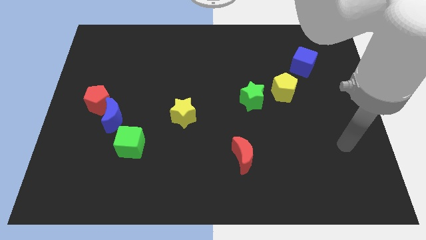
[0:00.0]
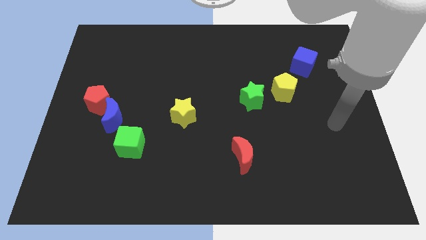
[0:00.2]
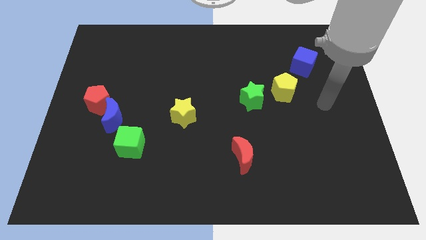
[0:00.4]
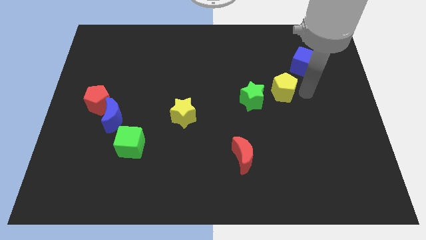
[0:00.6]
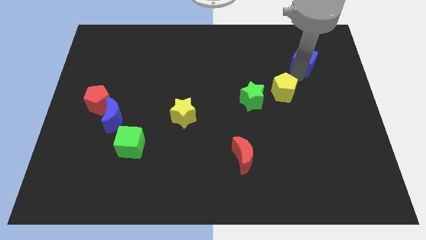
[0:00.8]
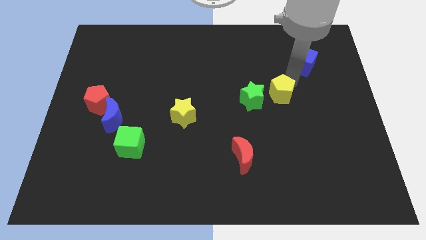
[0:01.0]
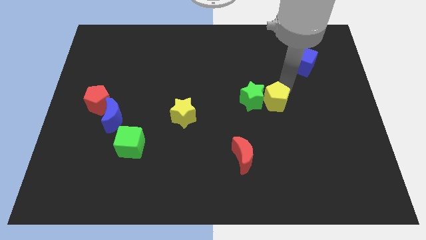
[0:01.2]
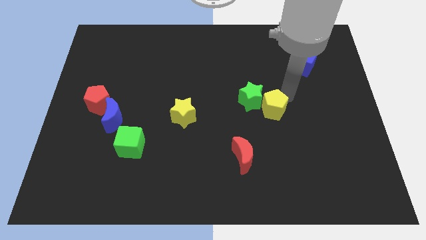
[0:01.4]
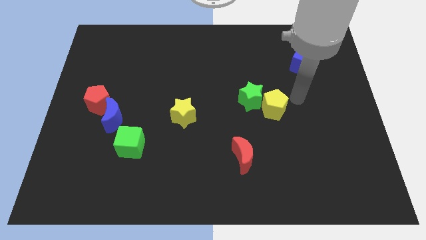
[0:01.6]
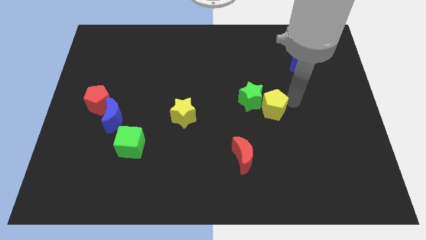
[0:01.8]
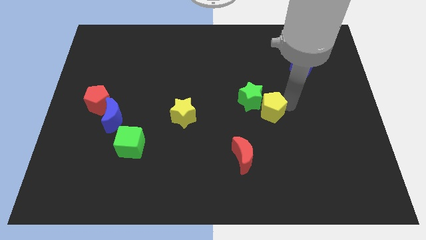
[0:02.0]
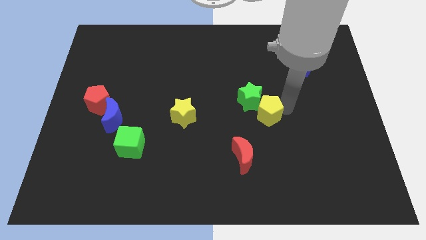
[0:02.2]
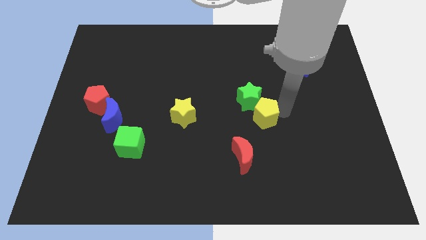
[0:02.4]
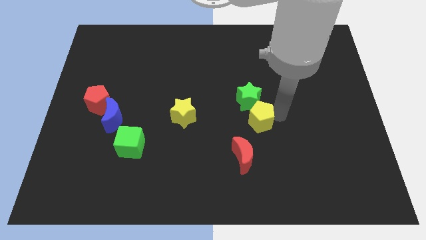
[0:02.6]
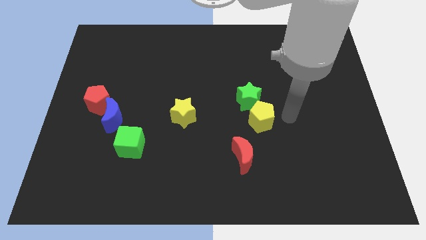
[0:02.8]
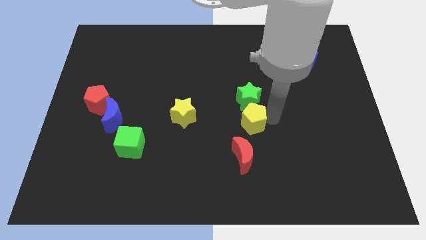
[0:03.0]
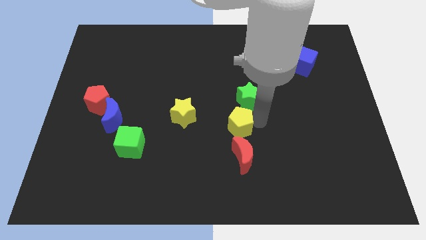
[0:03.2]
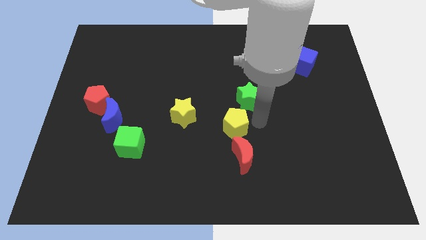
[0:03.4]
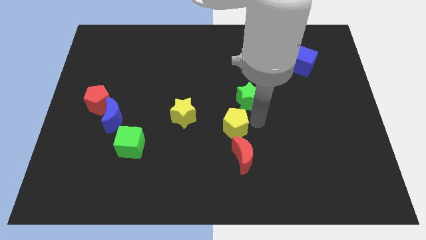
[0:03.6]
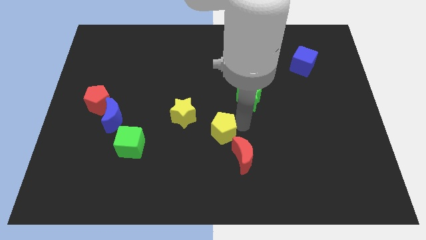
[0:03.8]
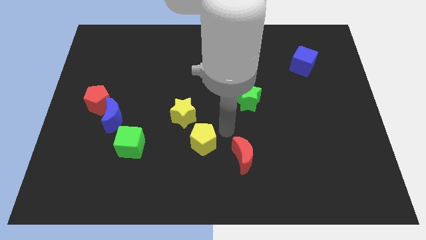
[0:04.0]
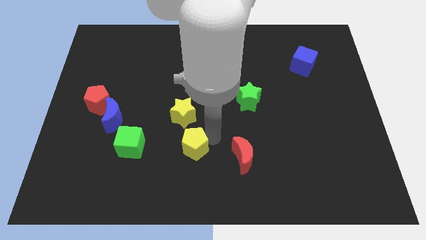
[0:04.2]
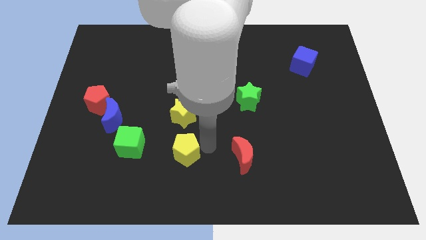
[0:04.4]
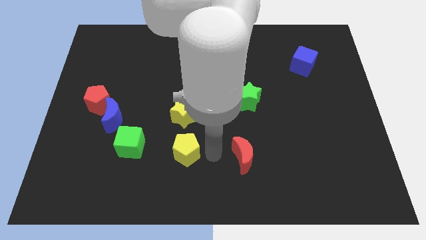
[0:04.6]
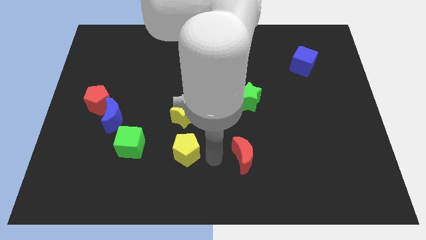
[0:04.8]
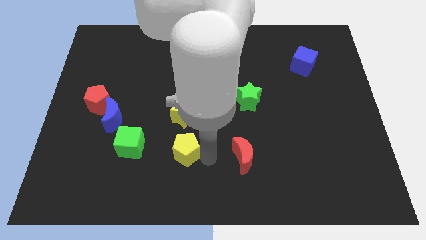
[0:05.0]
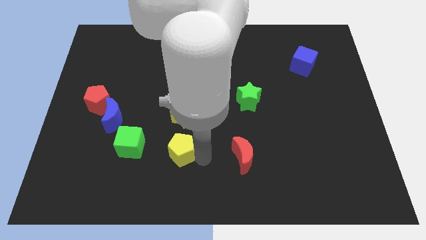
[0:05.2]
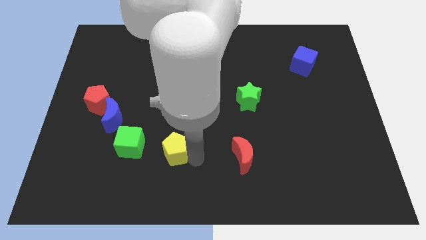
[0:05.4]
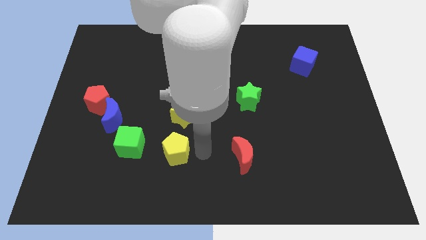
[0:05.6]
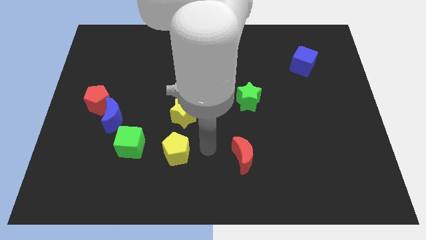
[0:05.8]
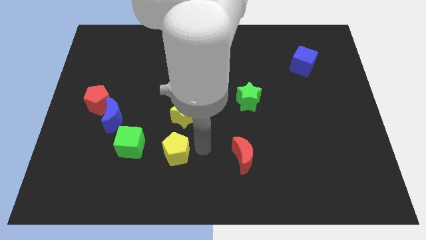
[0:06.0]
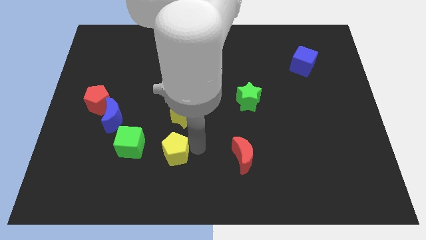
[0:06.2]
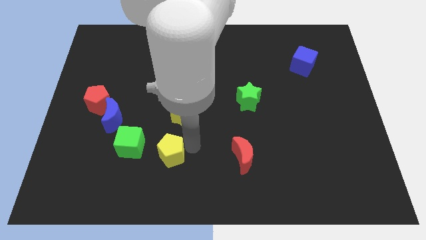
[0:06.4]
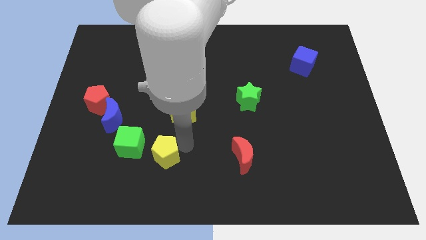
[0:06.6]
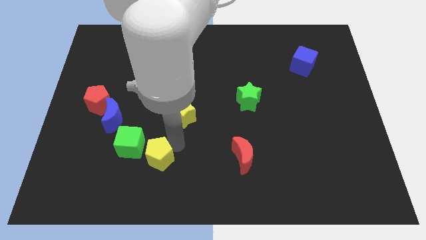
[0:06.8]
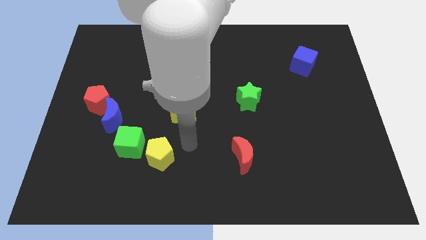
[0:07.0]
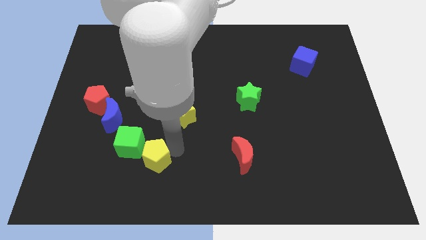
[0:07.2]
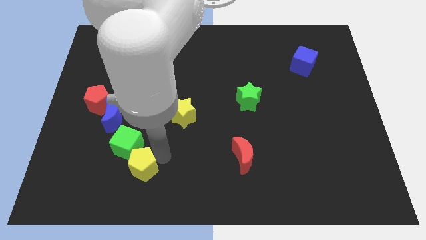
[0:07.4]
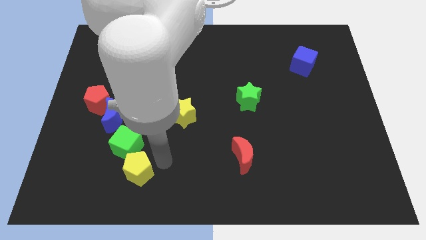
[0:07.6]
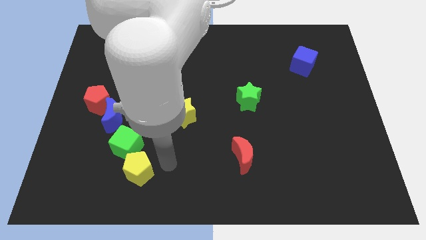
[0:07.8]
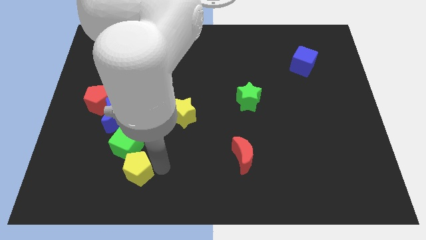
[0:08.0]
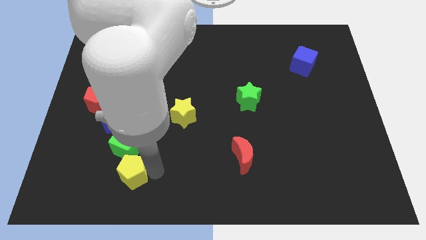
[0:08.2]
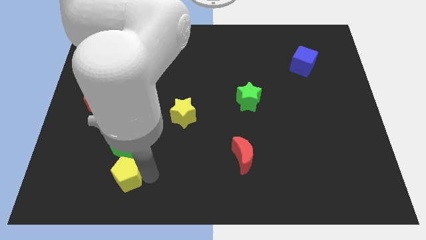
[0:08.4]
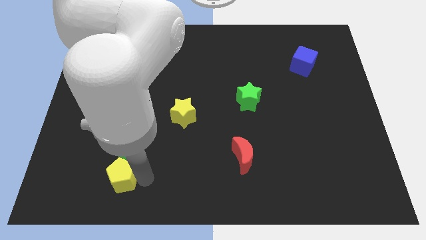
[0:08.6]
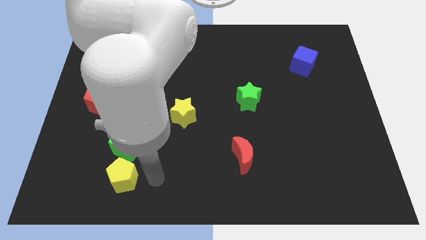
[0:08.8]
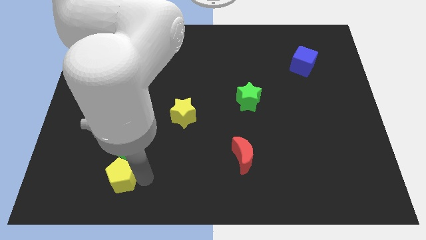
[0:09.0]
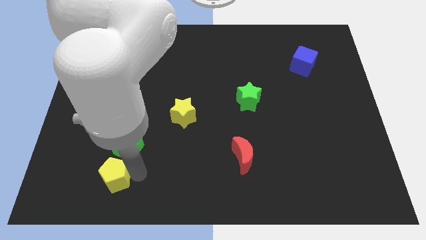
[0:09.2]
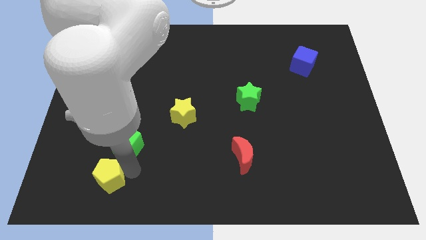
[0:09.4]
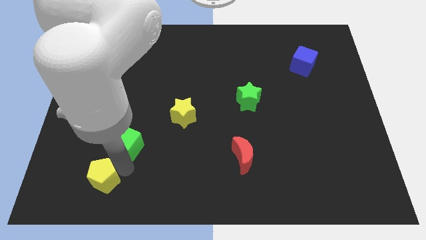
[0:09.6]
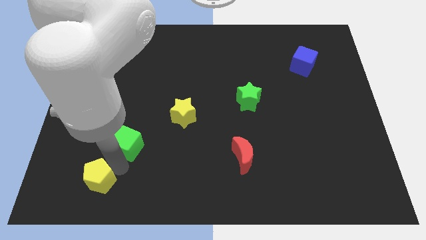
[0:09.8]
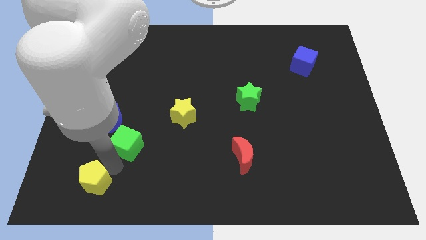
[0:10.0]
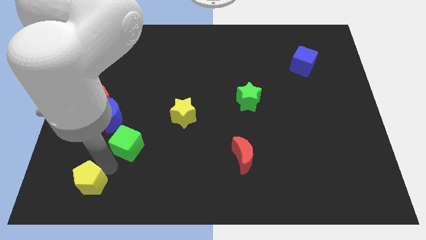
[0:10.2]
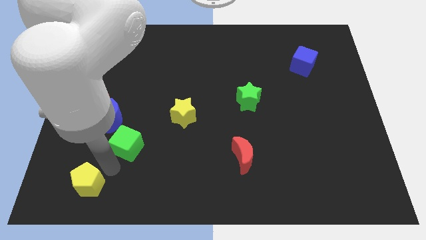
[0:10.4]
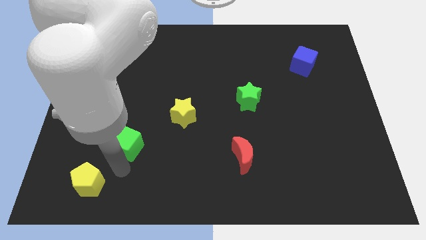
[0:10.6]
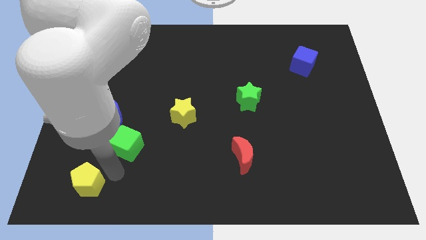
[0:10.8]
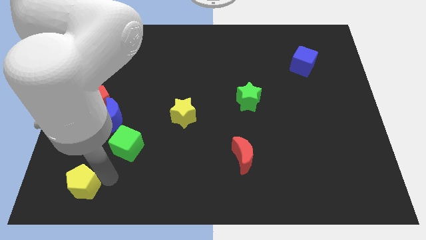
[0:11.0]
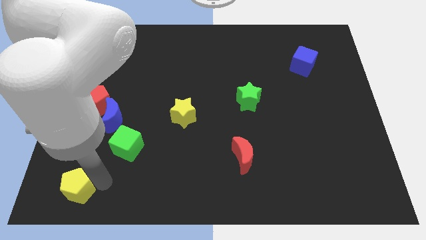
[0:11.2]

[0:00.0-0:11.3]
push the yellow pentagon to the lower left corner
